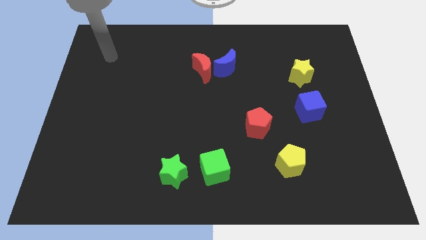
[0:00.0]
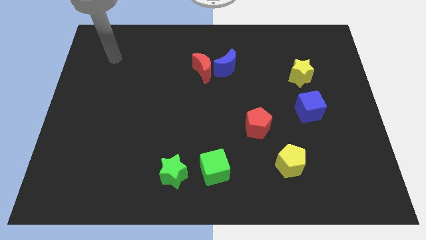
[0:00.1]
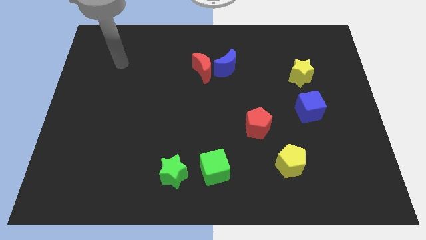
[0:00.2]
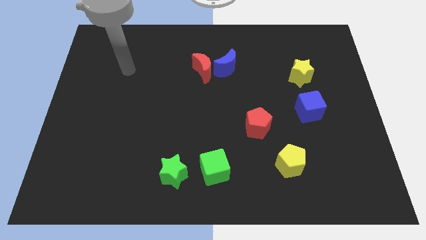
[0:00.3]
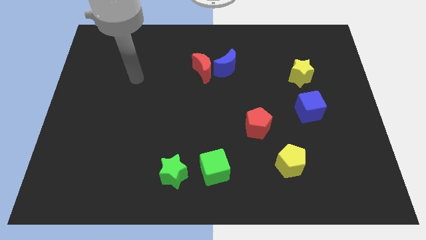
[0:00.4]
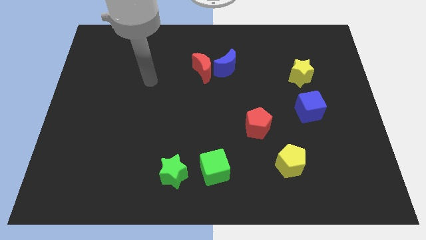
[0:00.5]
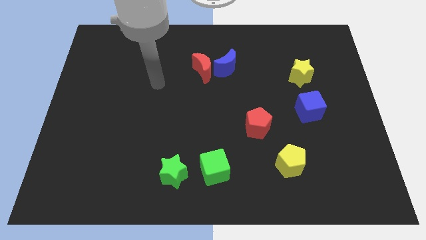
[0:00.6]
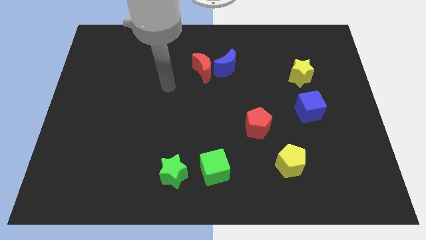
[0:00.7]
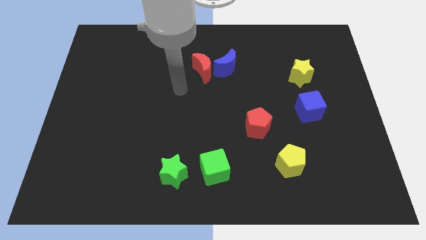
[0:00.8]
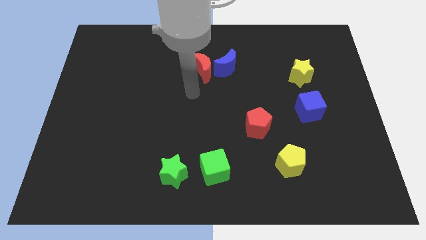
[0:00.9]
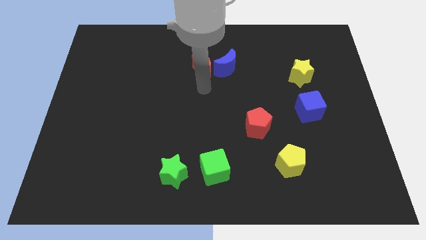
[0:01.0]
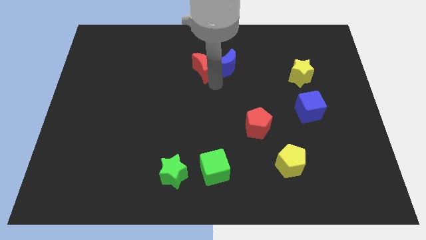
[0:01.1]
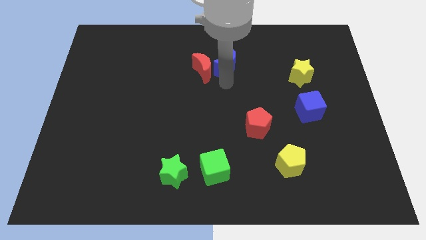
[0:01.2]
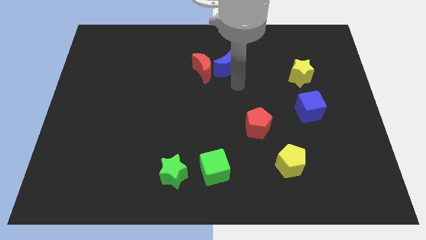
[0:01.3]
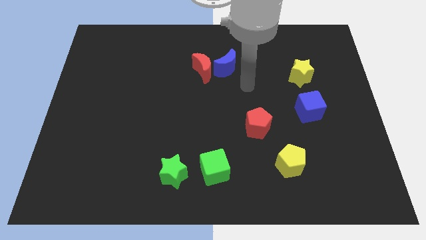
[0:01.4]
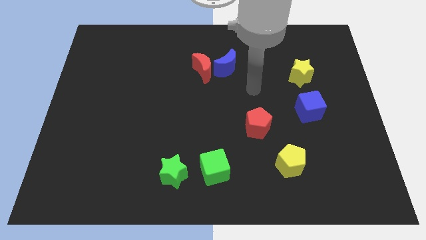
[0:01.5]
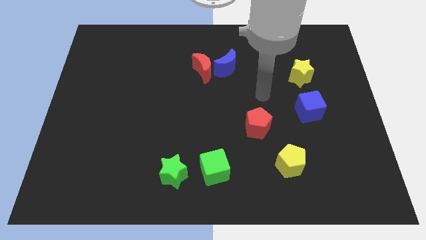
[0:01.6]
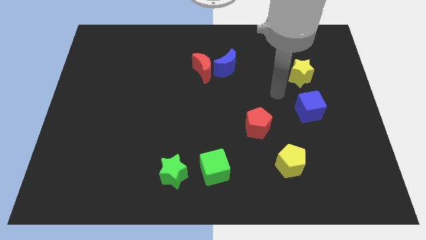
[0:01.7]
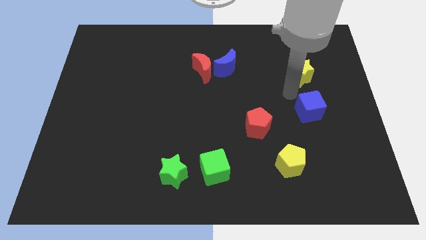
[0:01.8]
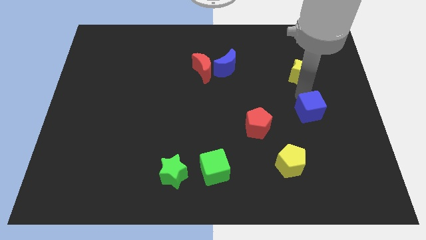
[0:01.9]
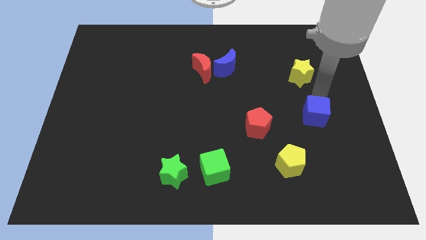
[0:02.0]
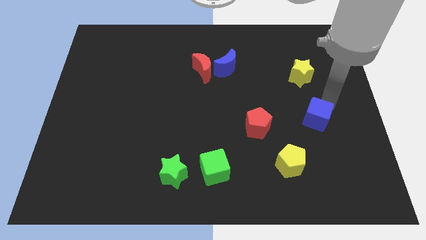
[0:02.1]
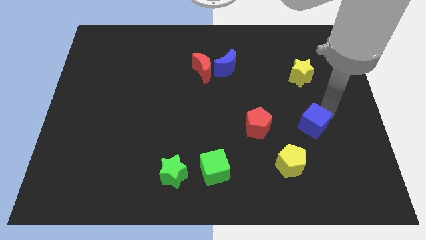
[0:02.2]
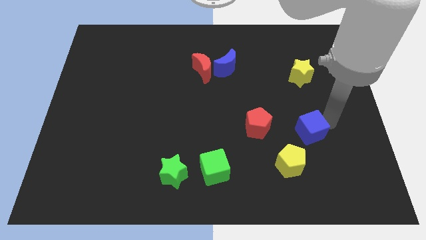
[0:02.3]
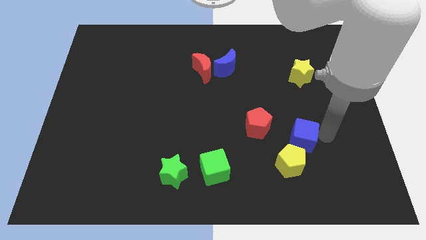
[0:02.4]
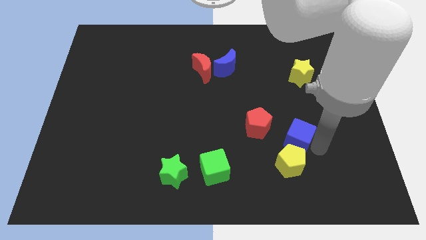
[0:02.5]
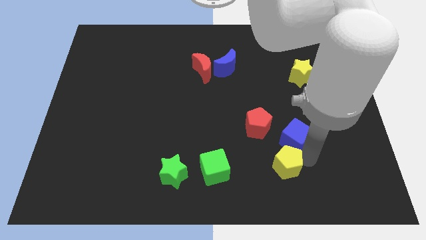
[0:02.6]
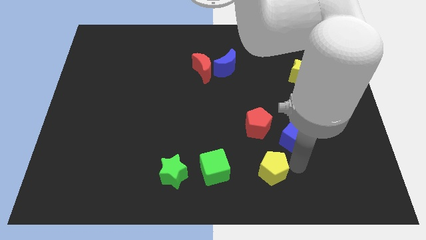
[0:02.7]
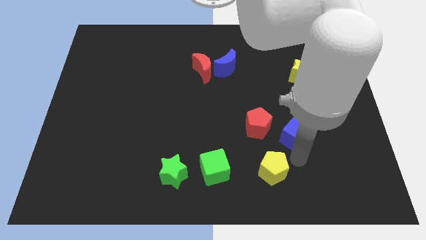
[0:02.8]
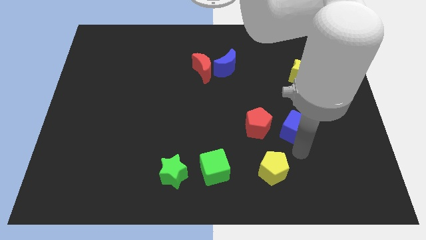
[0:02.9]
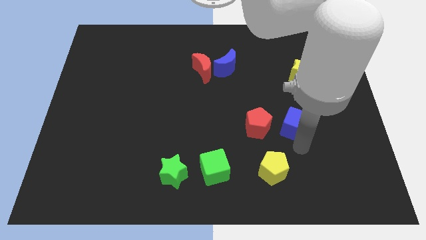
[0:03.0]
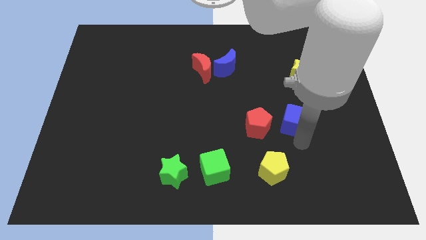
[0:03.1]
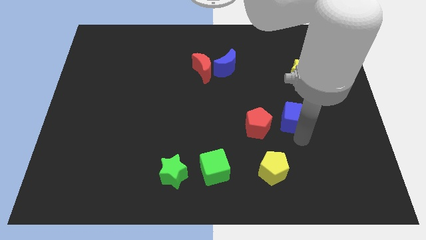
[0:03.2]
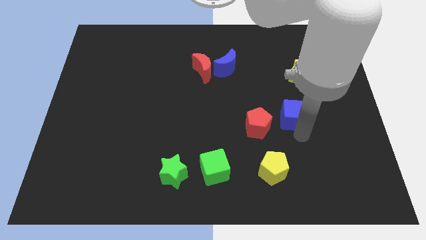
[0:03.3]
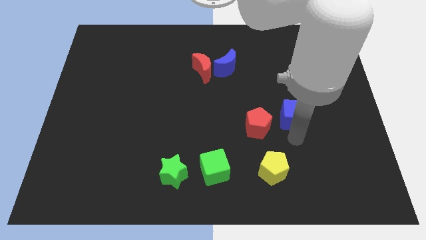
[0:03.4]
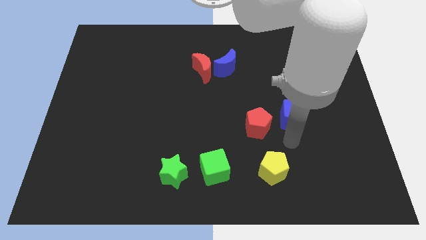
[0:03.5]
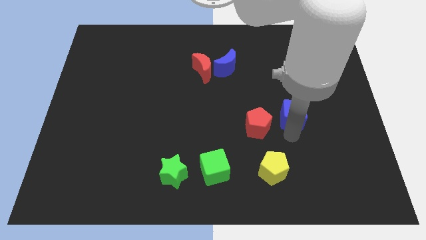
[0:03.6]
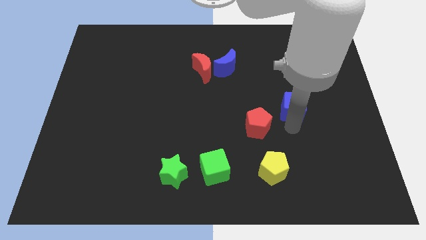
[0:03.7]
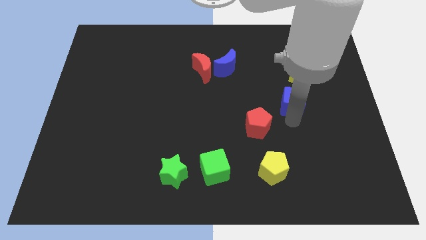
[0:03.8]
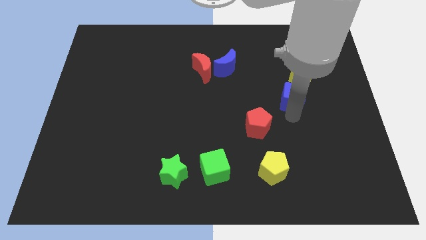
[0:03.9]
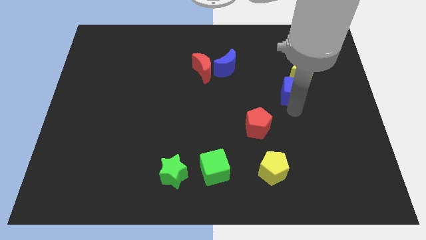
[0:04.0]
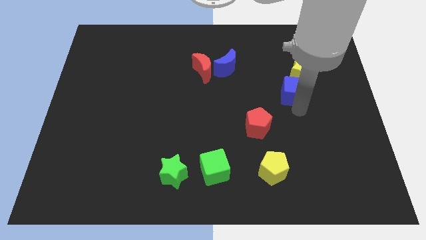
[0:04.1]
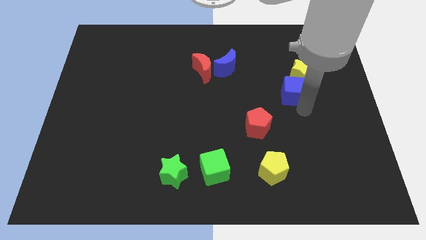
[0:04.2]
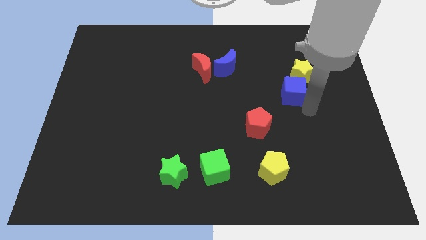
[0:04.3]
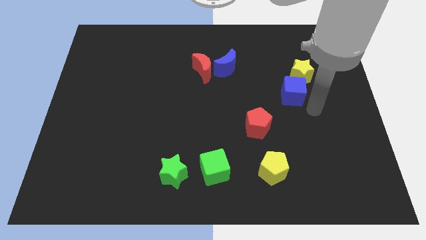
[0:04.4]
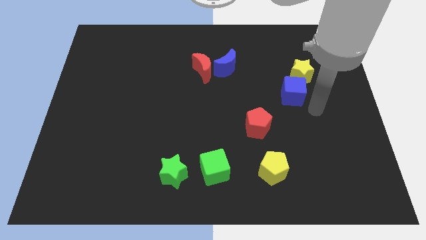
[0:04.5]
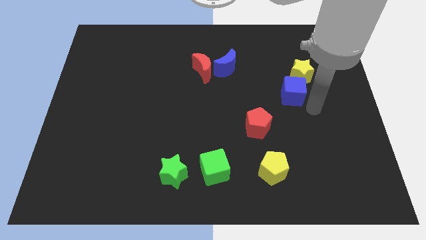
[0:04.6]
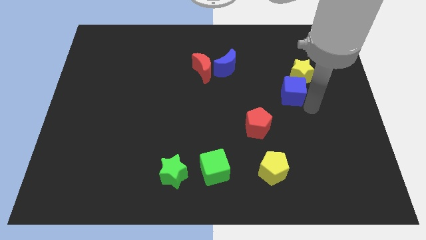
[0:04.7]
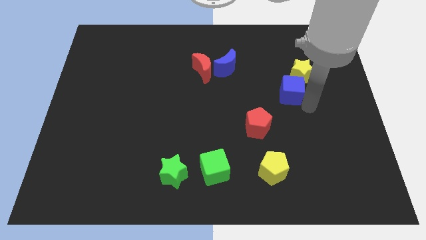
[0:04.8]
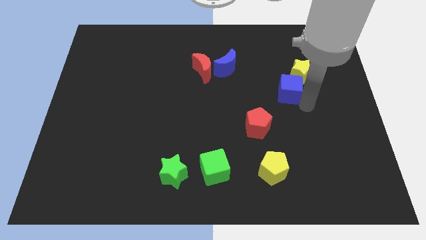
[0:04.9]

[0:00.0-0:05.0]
move the blue cube upwards and then to the left somewhat

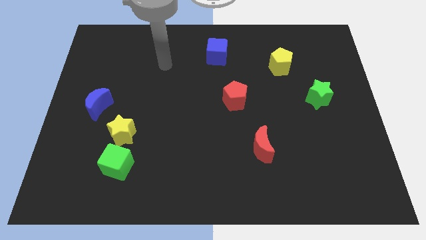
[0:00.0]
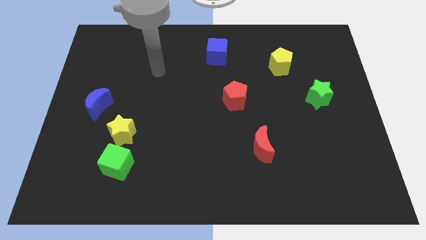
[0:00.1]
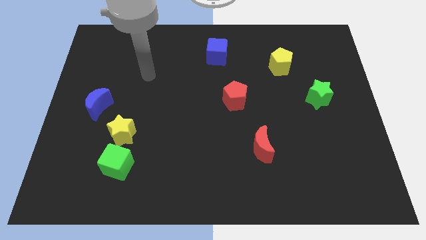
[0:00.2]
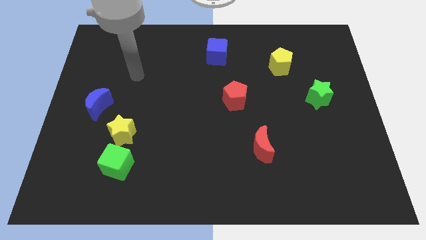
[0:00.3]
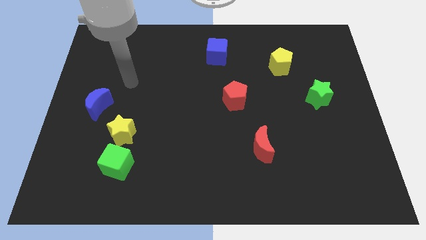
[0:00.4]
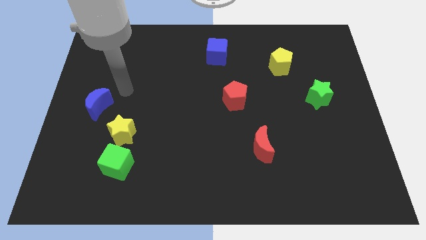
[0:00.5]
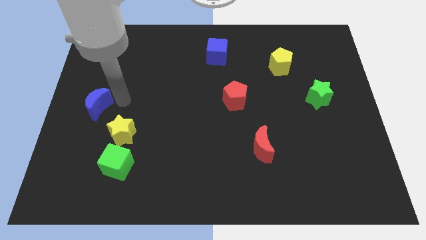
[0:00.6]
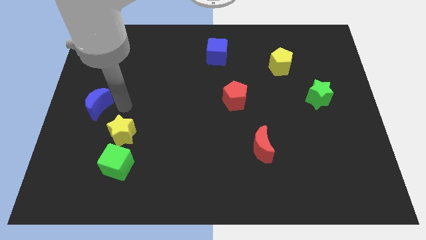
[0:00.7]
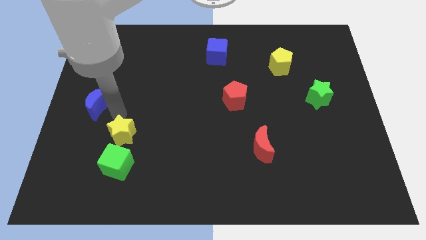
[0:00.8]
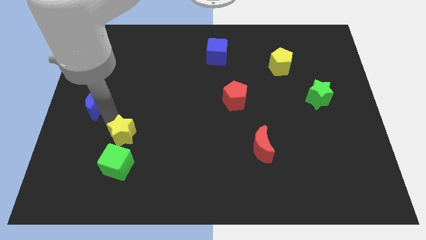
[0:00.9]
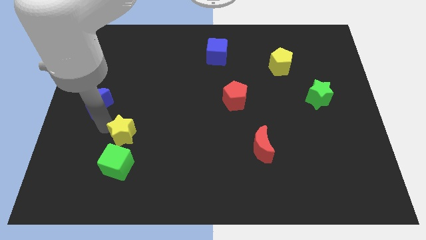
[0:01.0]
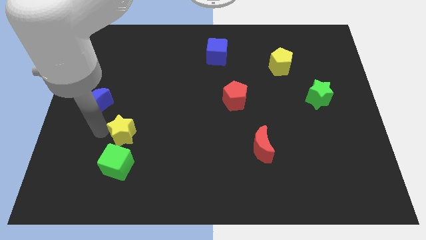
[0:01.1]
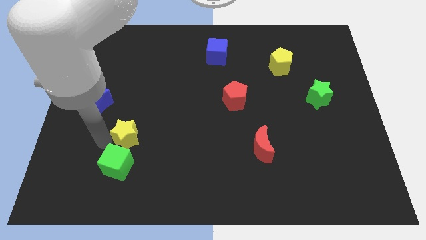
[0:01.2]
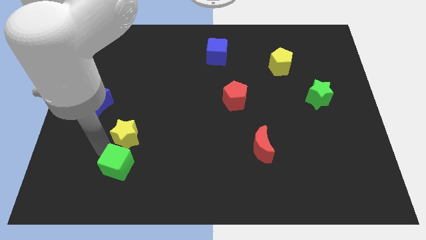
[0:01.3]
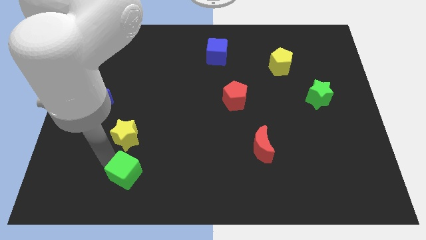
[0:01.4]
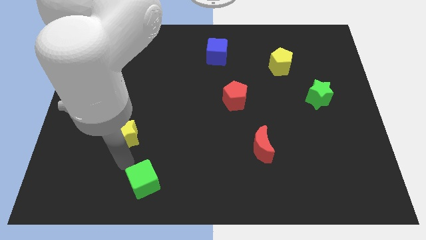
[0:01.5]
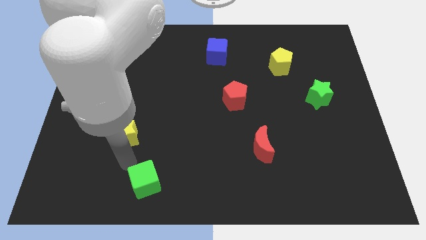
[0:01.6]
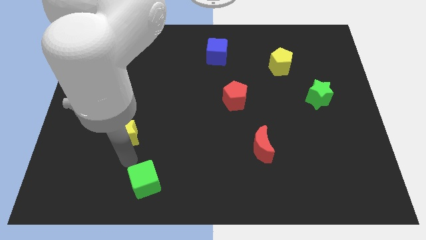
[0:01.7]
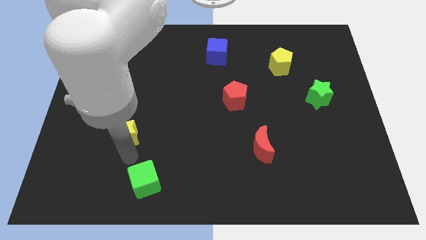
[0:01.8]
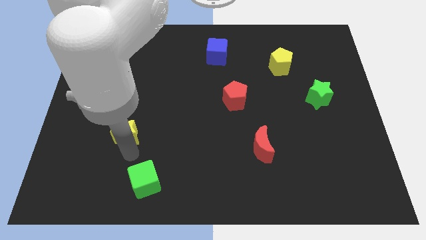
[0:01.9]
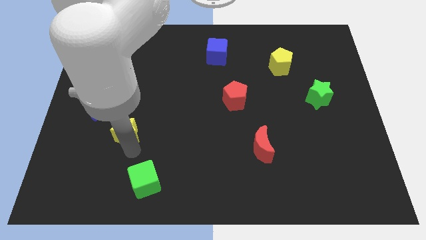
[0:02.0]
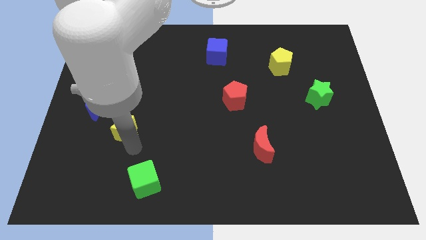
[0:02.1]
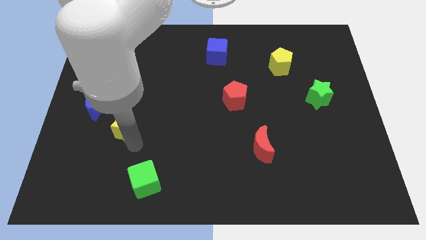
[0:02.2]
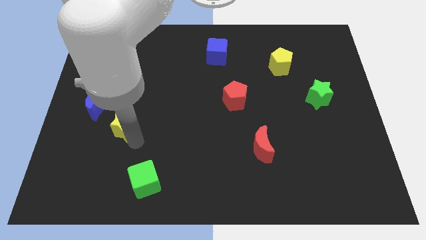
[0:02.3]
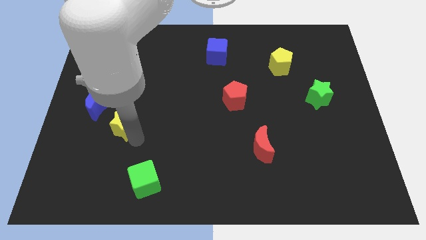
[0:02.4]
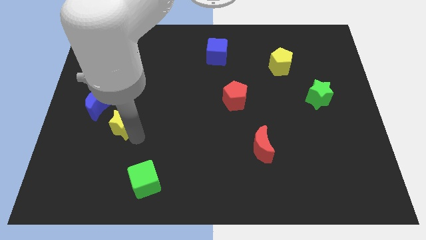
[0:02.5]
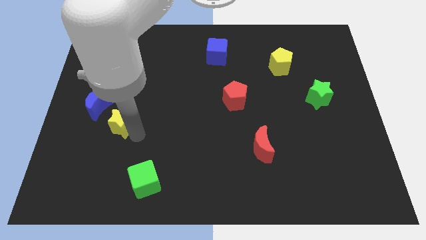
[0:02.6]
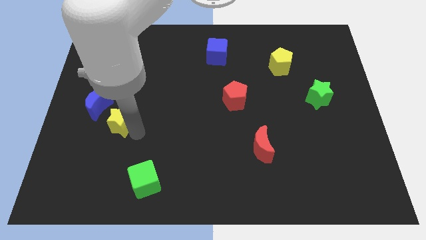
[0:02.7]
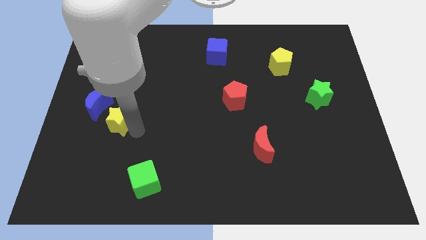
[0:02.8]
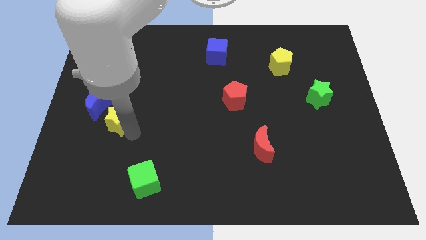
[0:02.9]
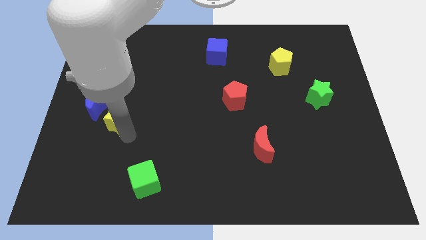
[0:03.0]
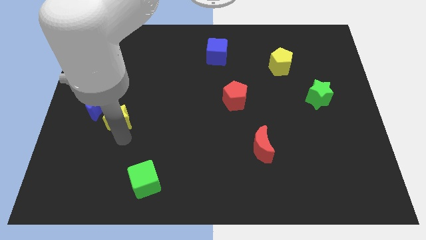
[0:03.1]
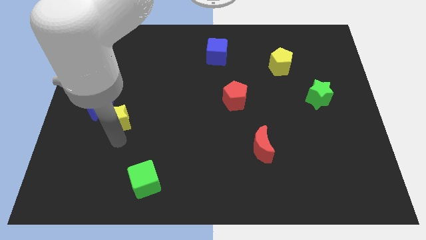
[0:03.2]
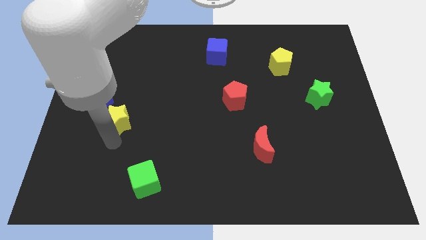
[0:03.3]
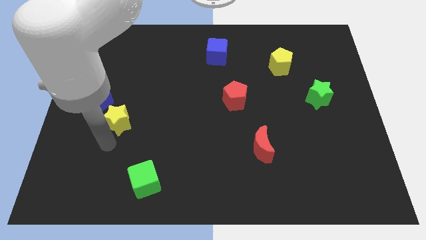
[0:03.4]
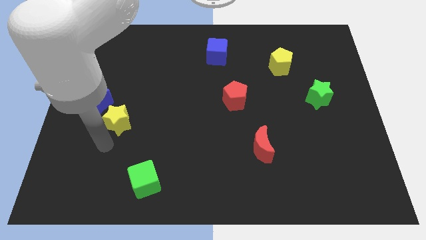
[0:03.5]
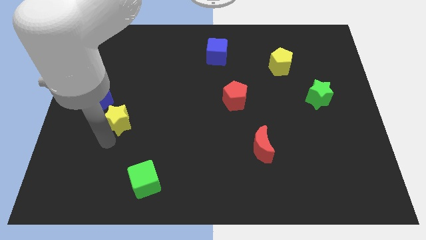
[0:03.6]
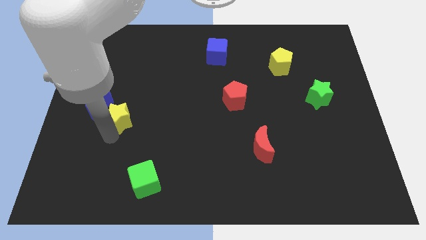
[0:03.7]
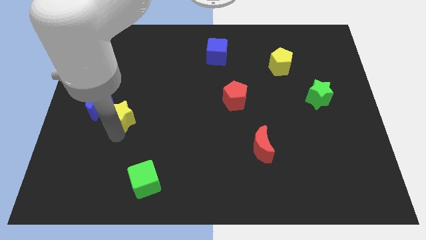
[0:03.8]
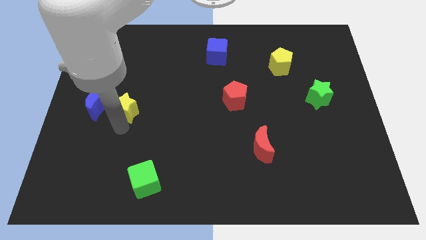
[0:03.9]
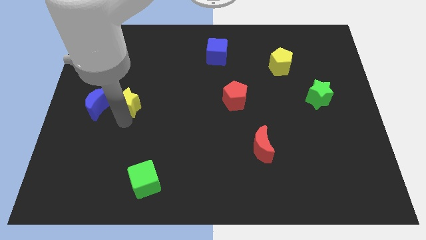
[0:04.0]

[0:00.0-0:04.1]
move the yellow star somewhat upwards
